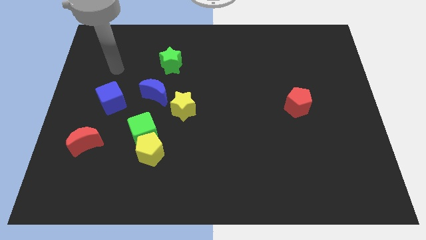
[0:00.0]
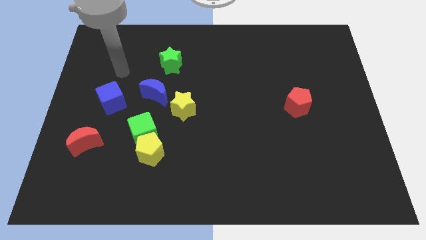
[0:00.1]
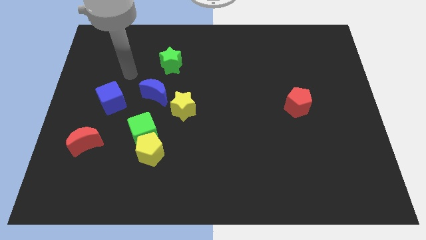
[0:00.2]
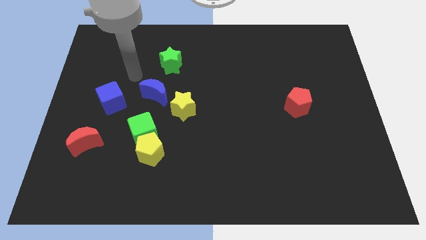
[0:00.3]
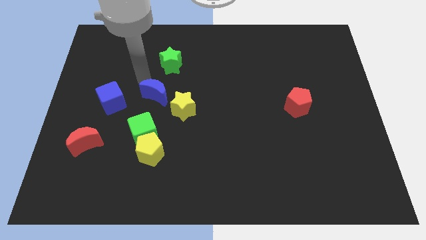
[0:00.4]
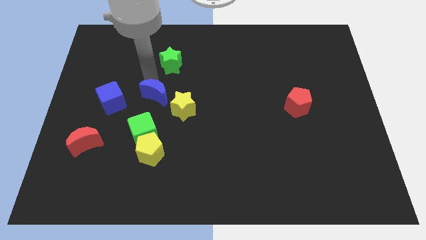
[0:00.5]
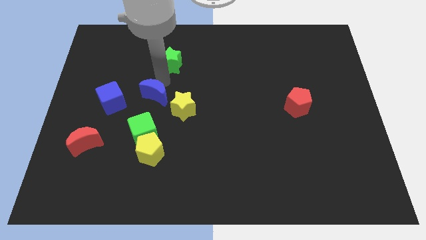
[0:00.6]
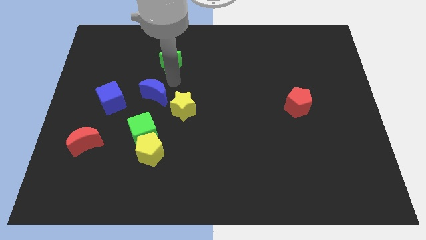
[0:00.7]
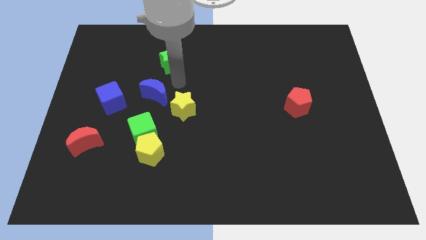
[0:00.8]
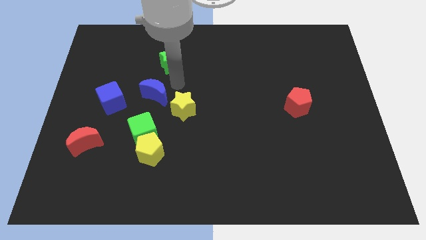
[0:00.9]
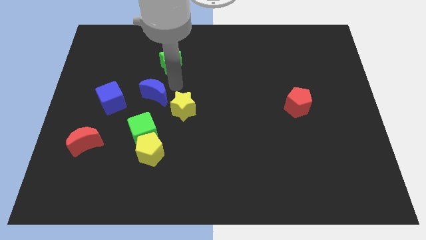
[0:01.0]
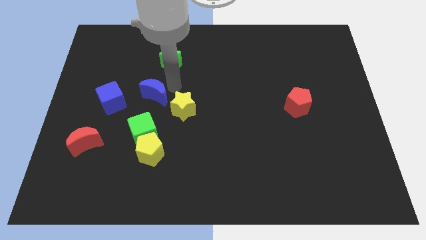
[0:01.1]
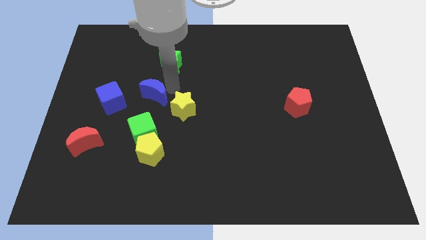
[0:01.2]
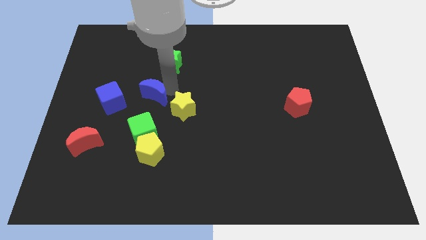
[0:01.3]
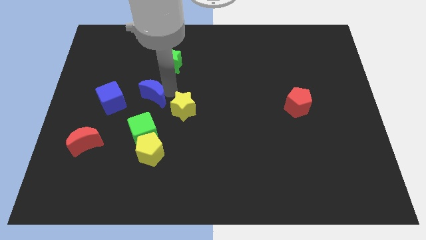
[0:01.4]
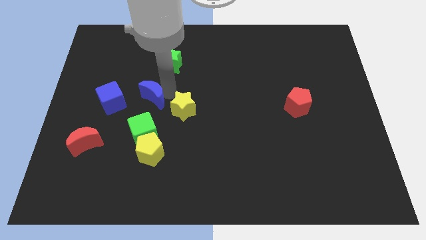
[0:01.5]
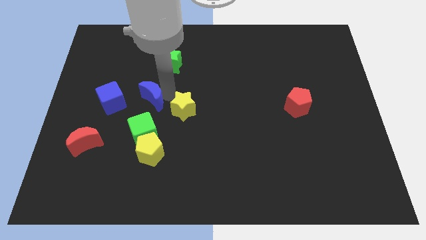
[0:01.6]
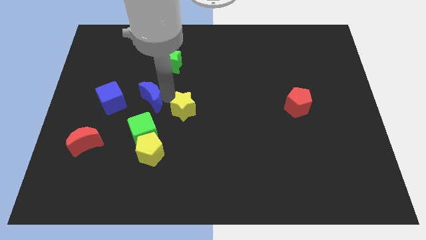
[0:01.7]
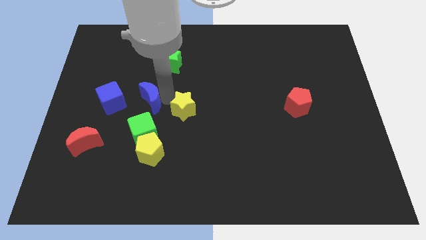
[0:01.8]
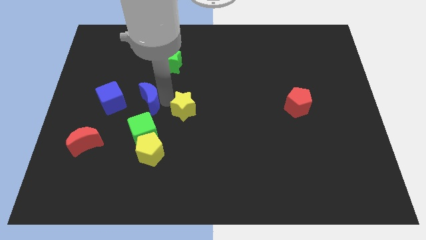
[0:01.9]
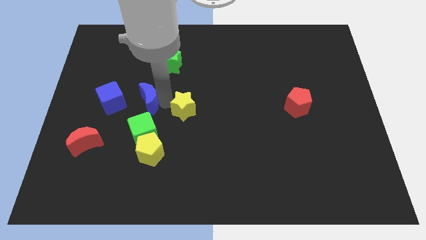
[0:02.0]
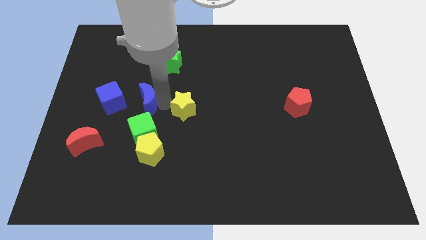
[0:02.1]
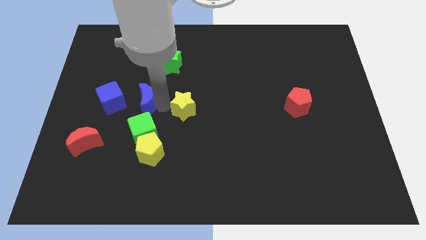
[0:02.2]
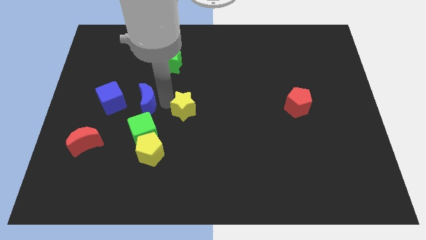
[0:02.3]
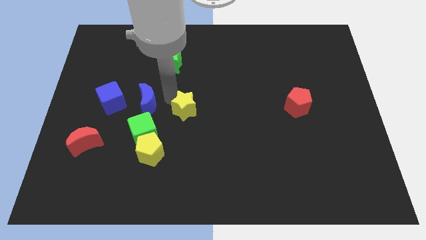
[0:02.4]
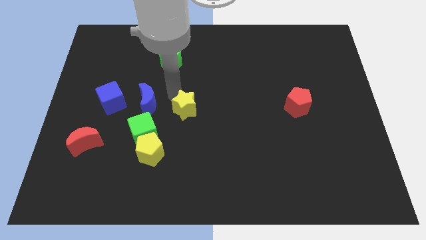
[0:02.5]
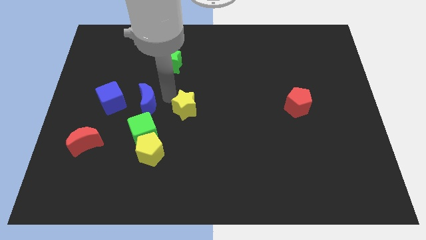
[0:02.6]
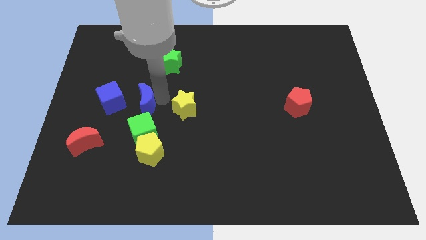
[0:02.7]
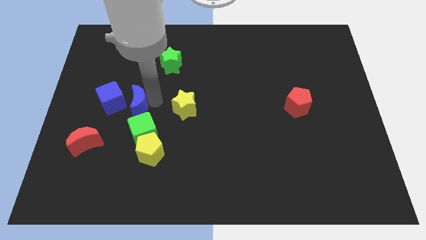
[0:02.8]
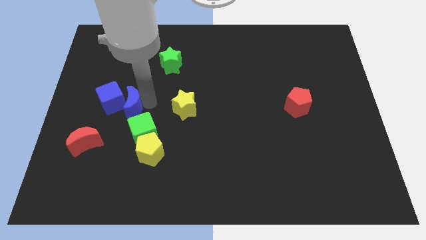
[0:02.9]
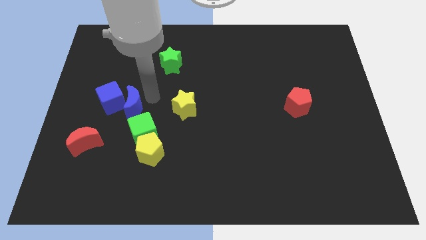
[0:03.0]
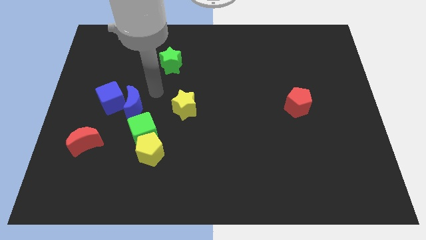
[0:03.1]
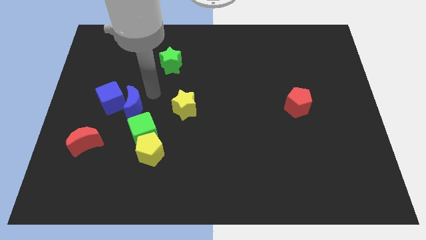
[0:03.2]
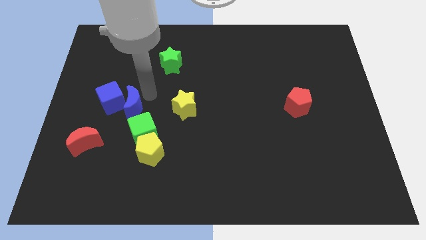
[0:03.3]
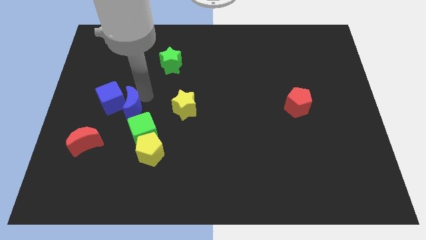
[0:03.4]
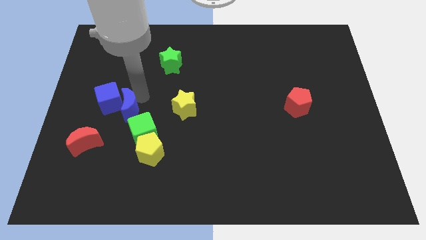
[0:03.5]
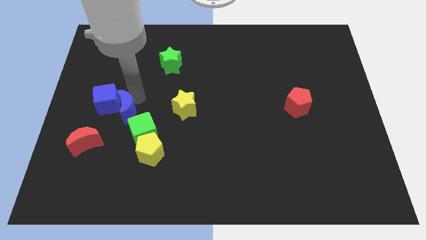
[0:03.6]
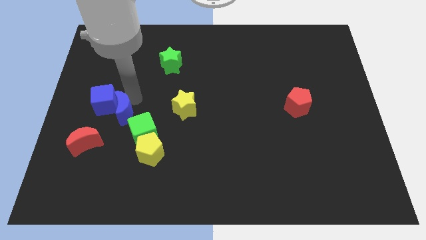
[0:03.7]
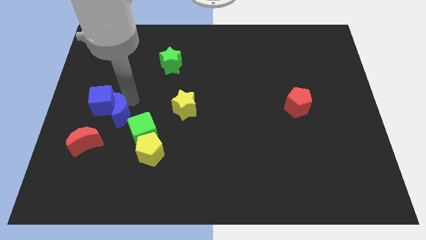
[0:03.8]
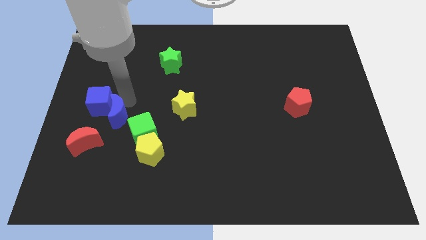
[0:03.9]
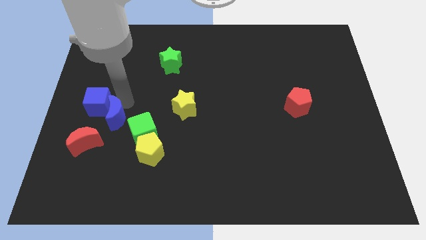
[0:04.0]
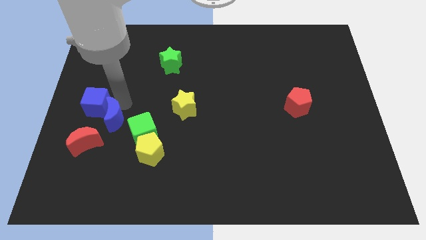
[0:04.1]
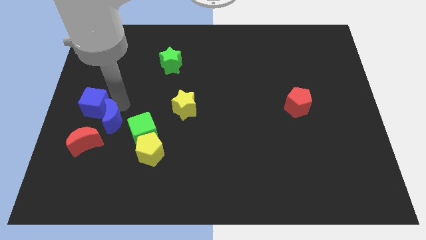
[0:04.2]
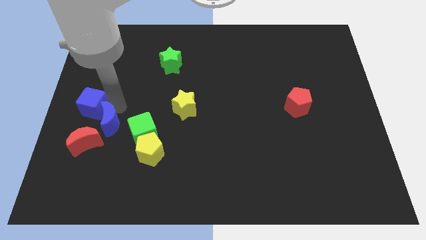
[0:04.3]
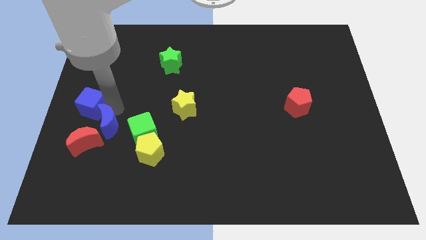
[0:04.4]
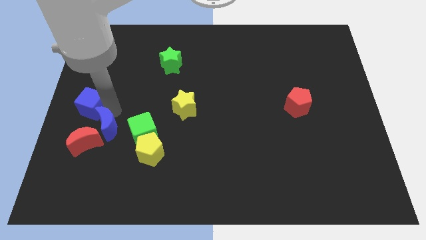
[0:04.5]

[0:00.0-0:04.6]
put the blue moon close to the red moon

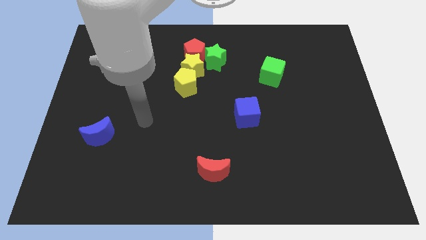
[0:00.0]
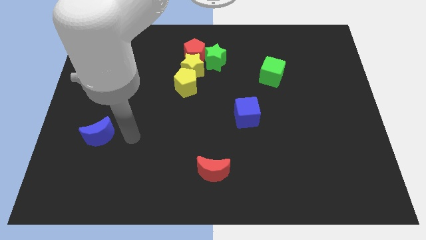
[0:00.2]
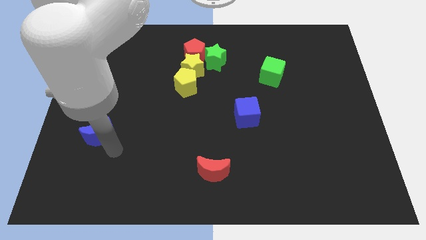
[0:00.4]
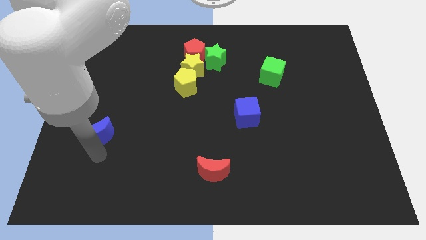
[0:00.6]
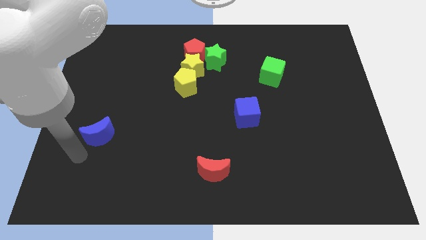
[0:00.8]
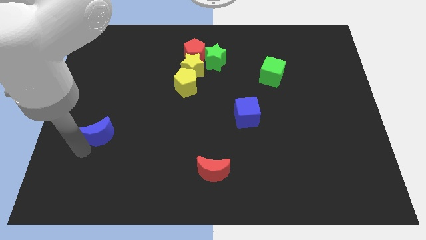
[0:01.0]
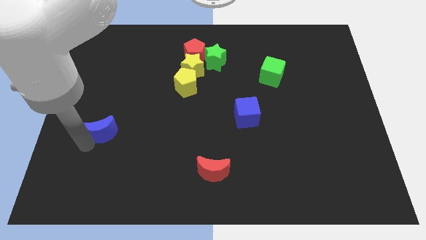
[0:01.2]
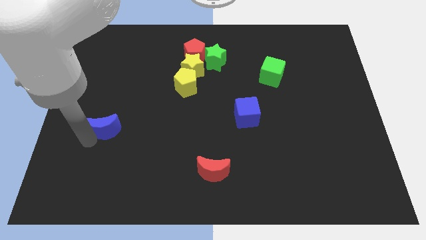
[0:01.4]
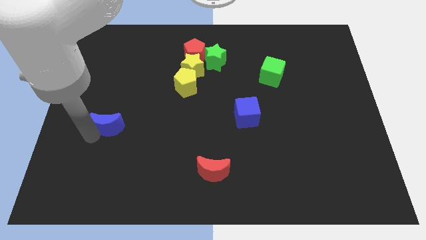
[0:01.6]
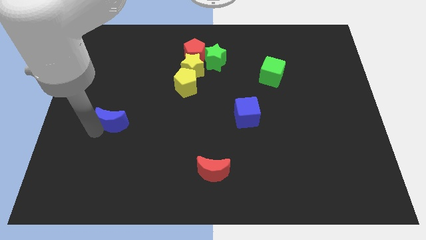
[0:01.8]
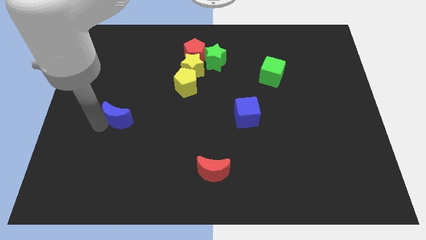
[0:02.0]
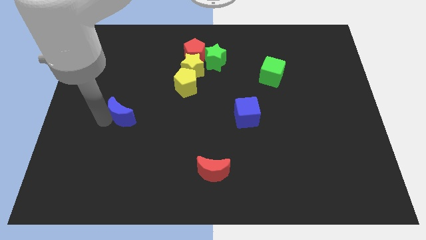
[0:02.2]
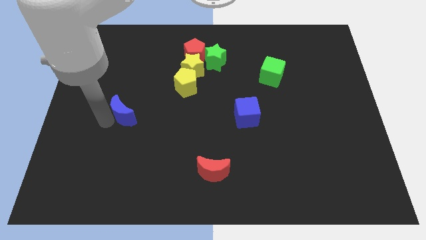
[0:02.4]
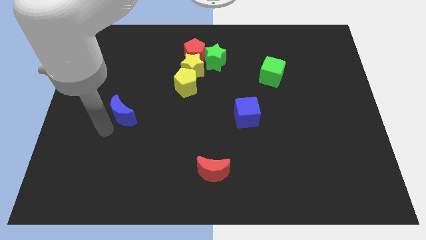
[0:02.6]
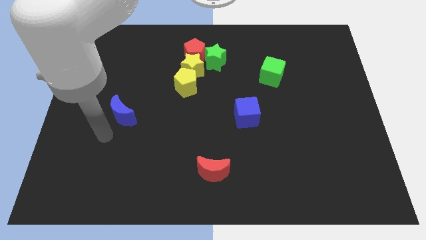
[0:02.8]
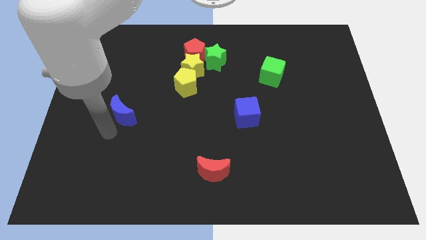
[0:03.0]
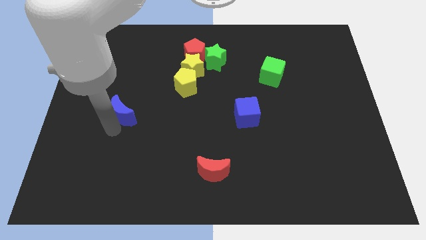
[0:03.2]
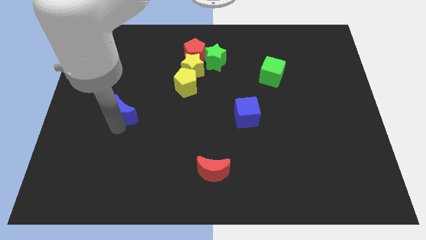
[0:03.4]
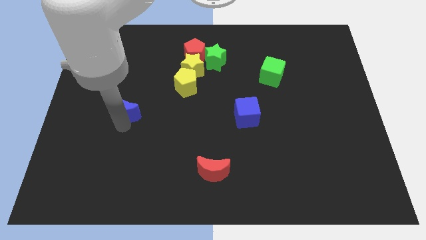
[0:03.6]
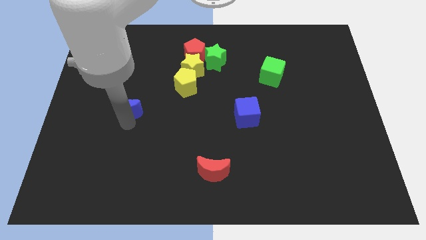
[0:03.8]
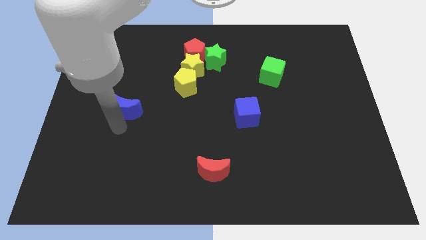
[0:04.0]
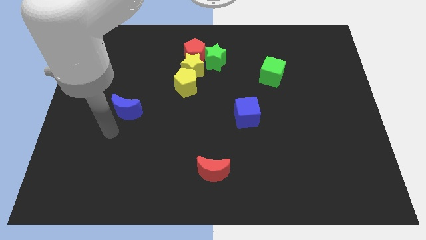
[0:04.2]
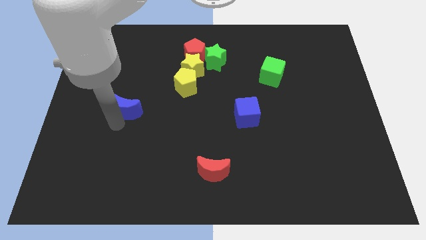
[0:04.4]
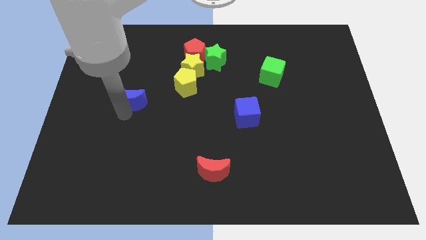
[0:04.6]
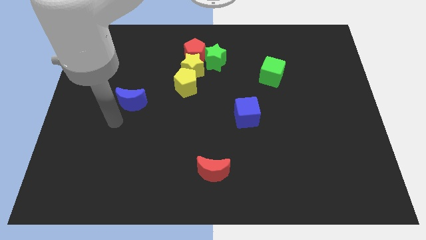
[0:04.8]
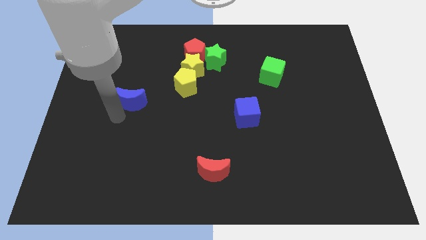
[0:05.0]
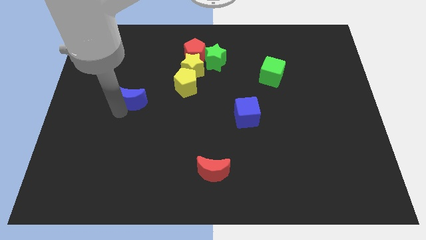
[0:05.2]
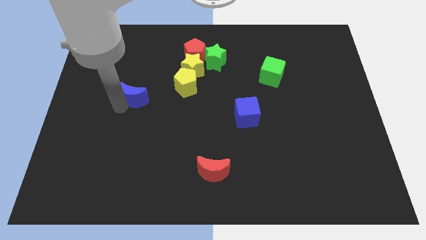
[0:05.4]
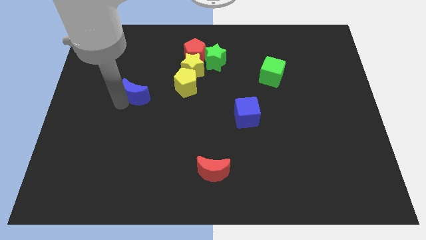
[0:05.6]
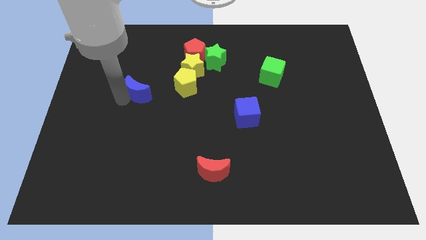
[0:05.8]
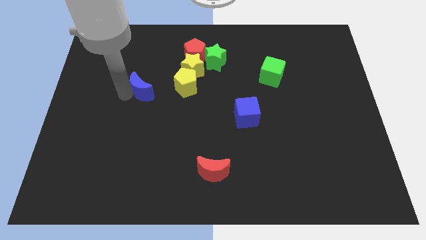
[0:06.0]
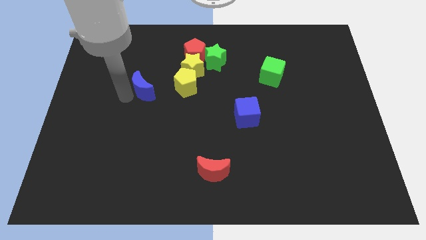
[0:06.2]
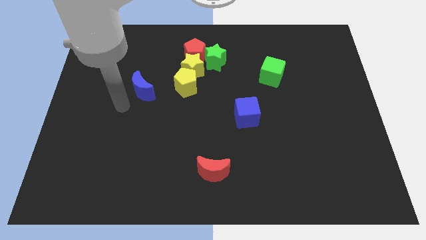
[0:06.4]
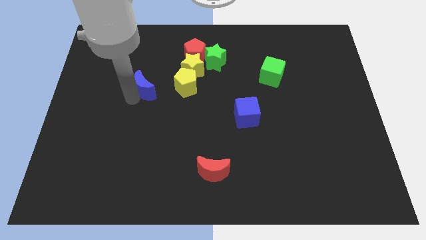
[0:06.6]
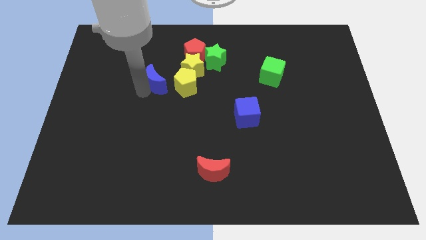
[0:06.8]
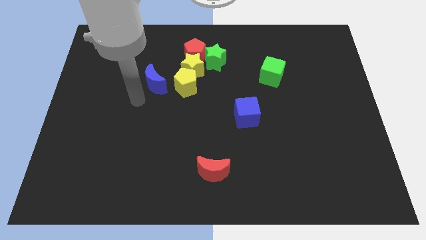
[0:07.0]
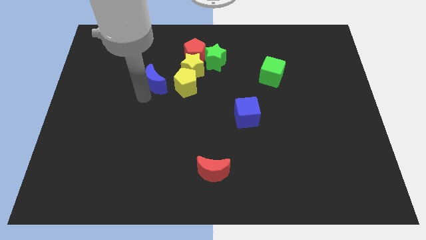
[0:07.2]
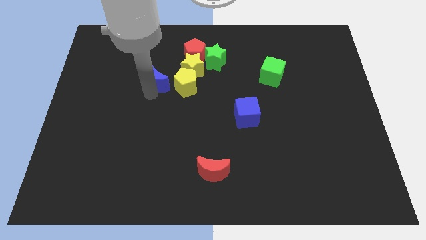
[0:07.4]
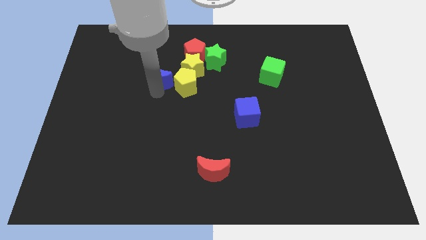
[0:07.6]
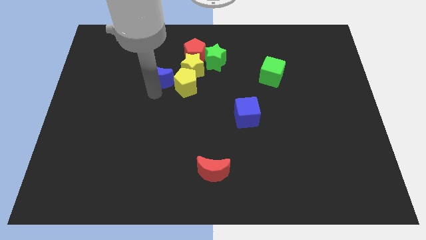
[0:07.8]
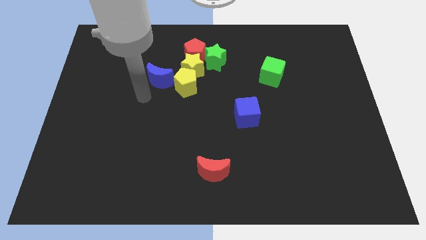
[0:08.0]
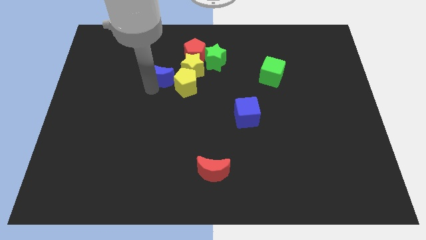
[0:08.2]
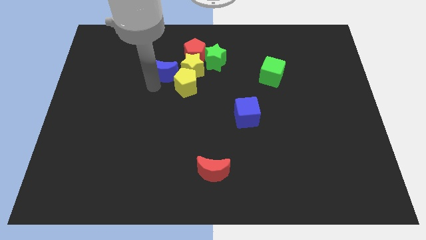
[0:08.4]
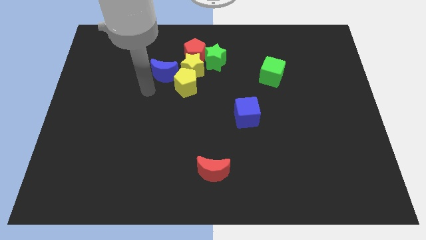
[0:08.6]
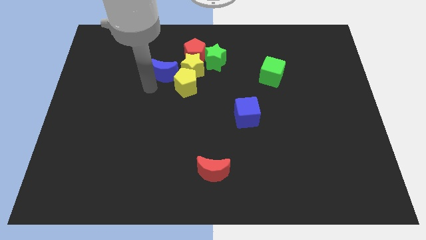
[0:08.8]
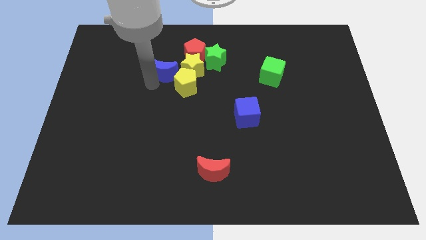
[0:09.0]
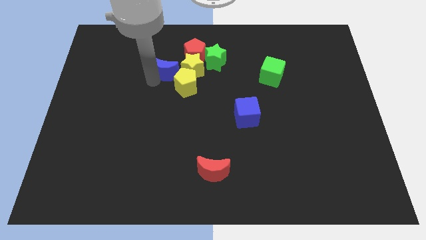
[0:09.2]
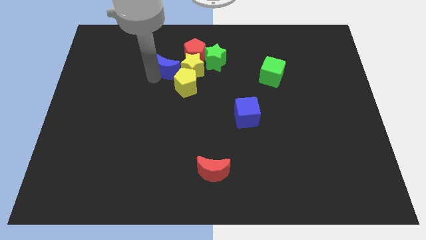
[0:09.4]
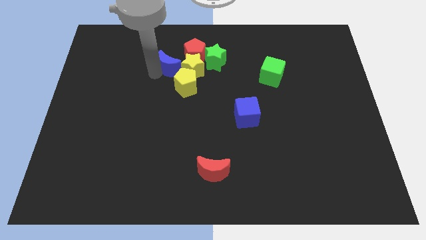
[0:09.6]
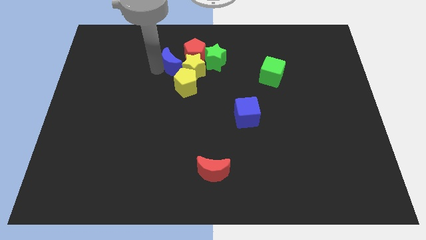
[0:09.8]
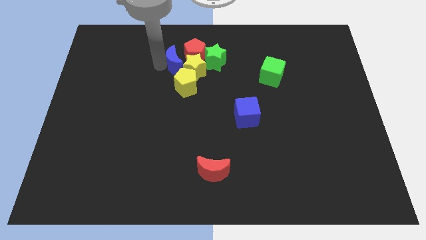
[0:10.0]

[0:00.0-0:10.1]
push the blue moon next to the red pentagon
